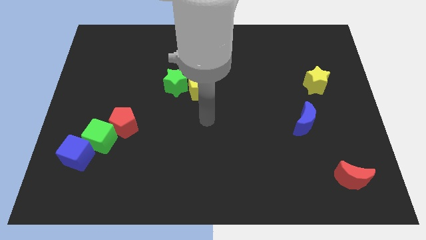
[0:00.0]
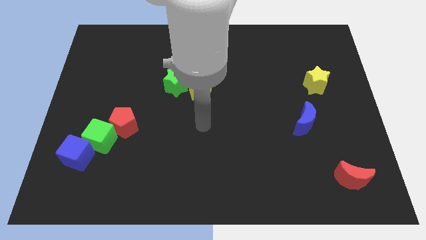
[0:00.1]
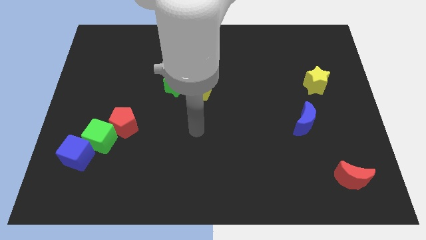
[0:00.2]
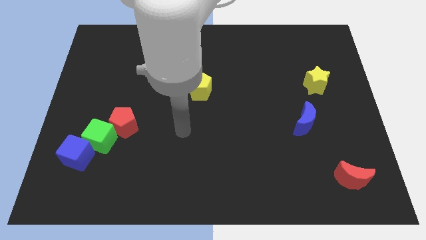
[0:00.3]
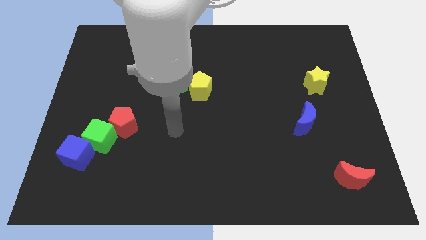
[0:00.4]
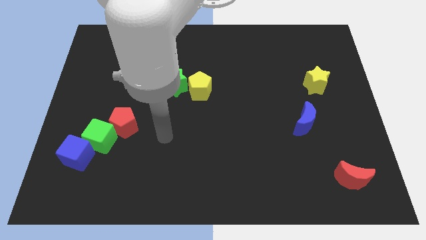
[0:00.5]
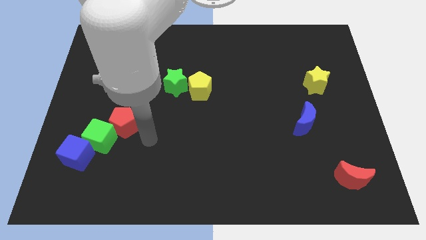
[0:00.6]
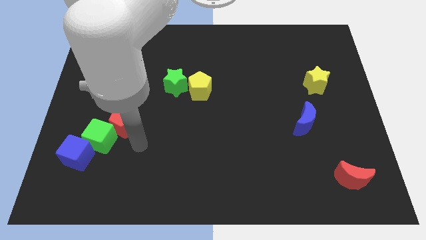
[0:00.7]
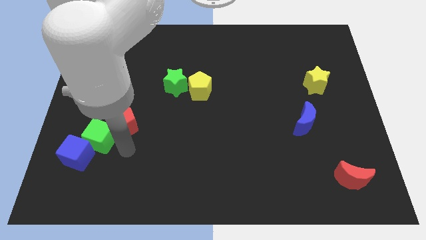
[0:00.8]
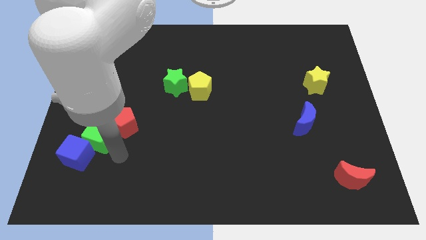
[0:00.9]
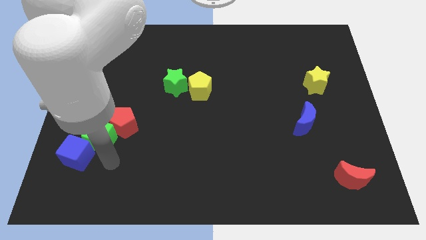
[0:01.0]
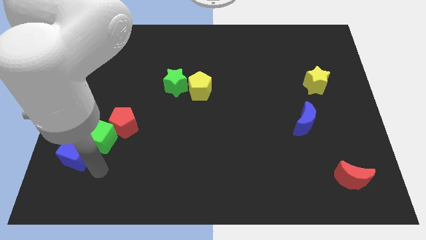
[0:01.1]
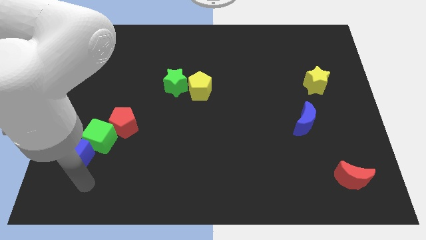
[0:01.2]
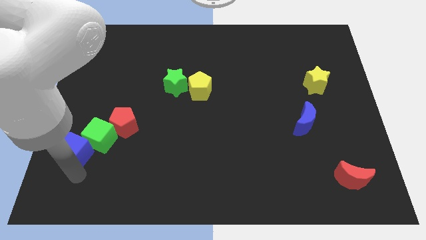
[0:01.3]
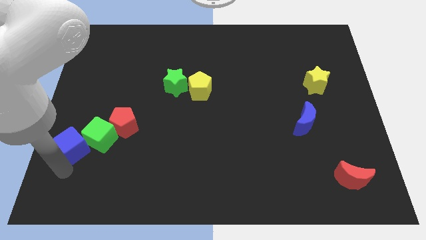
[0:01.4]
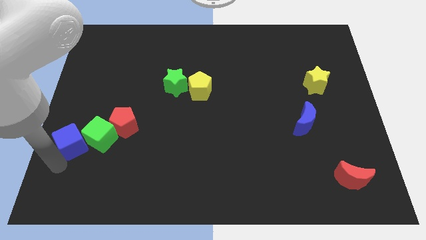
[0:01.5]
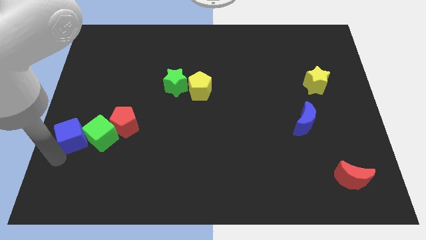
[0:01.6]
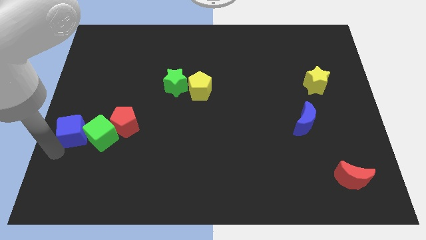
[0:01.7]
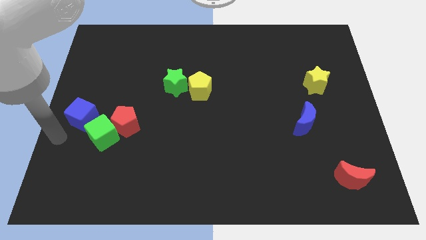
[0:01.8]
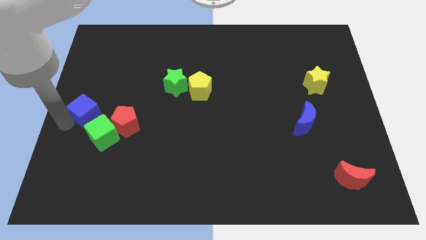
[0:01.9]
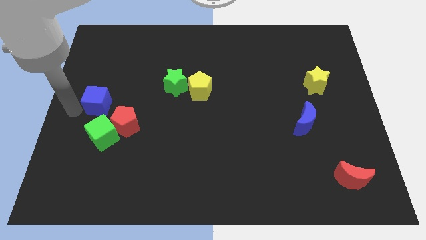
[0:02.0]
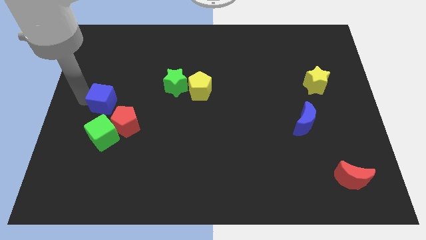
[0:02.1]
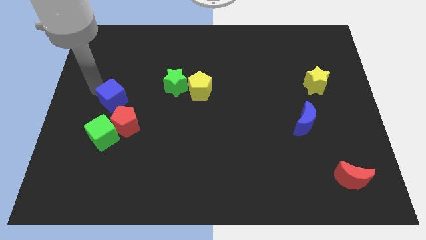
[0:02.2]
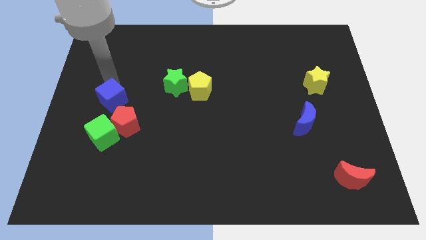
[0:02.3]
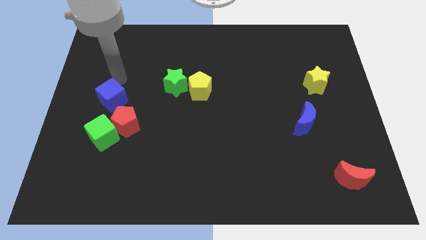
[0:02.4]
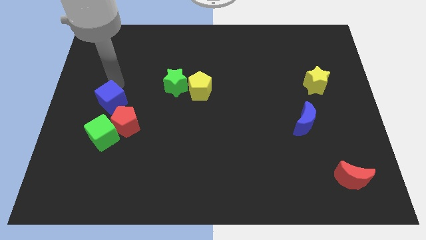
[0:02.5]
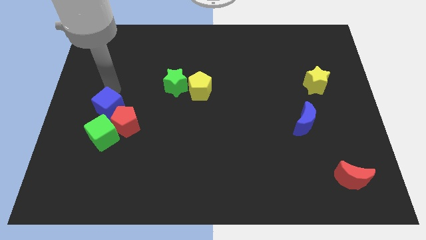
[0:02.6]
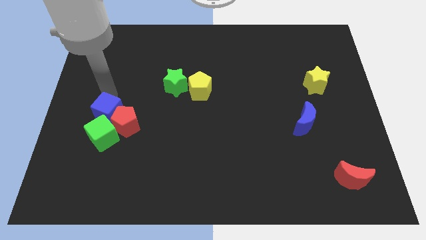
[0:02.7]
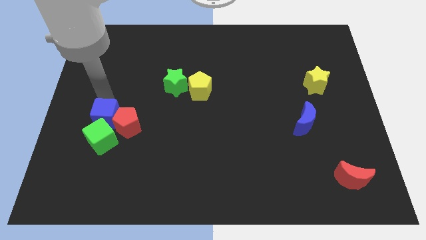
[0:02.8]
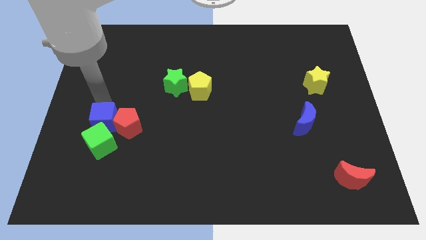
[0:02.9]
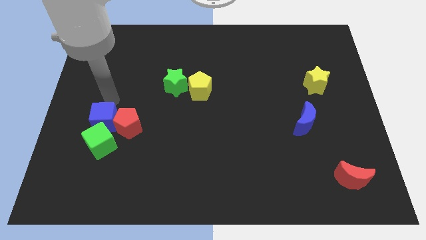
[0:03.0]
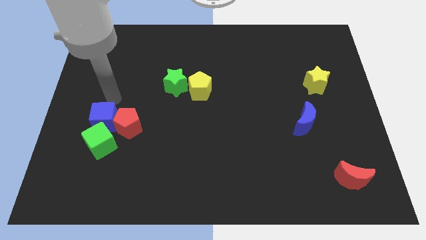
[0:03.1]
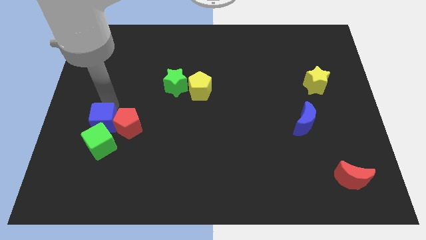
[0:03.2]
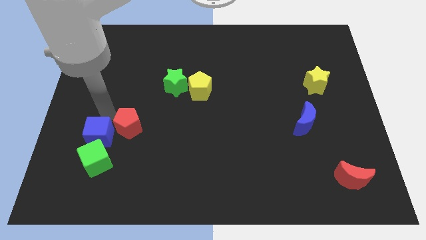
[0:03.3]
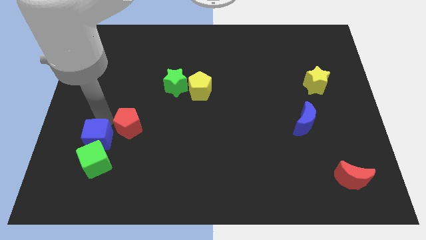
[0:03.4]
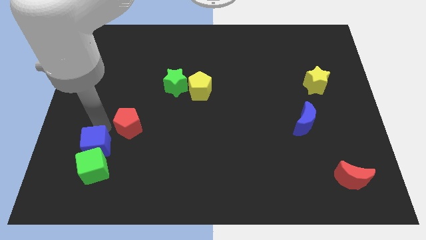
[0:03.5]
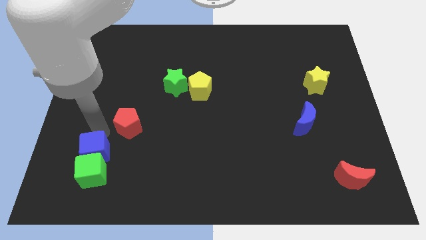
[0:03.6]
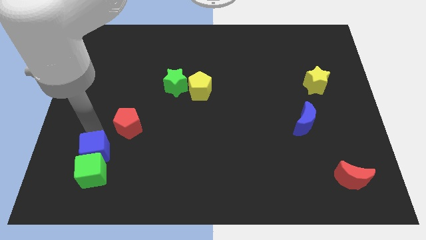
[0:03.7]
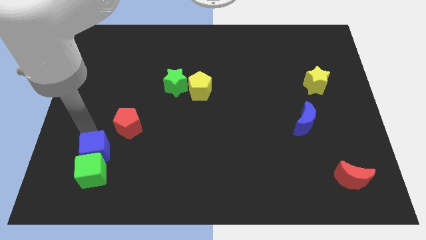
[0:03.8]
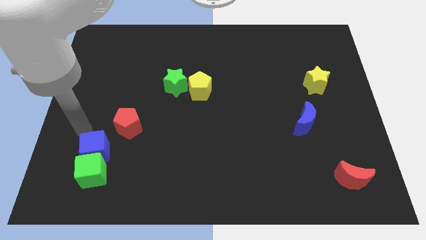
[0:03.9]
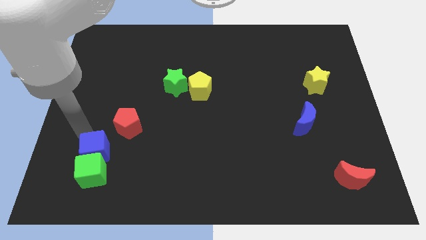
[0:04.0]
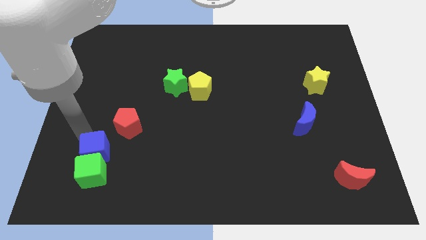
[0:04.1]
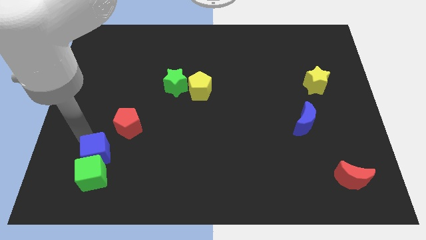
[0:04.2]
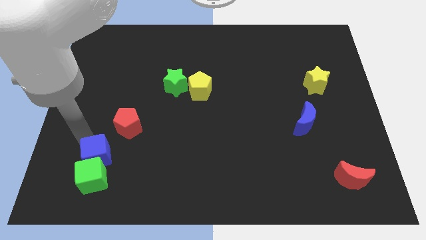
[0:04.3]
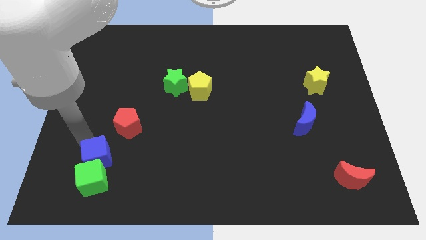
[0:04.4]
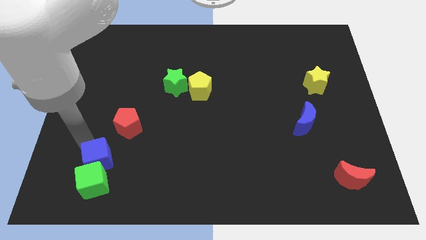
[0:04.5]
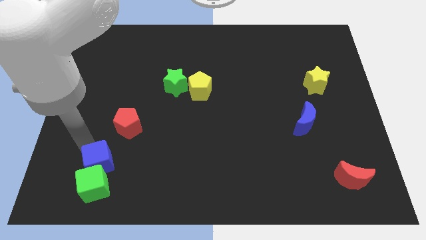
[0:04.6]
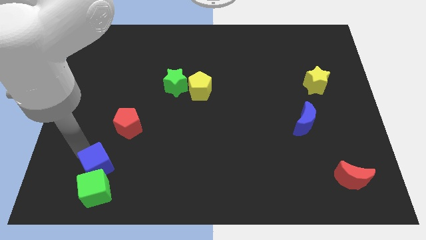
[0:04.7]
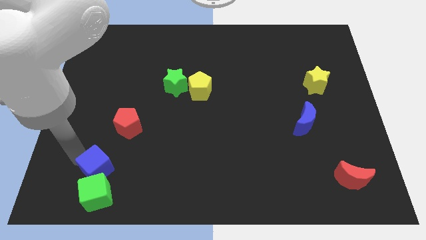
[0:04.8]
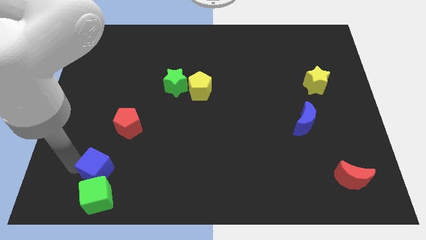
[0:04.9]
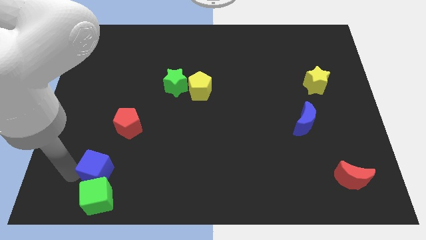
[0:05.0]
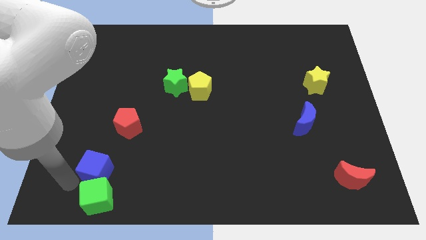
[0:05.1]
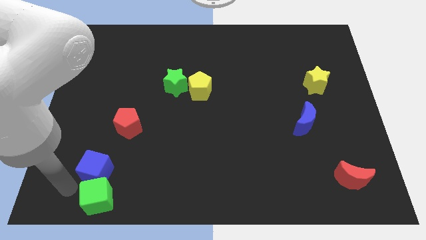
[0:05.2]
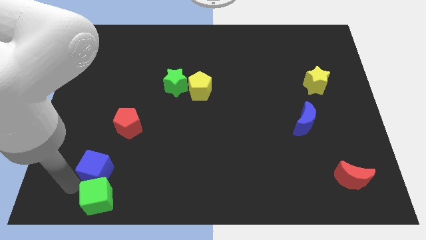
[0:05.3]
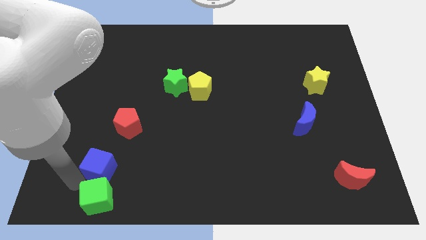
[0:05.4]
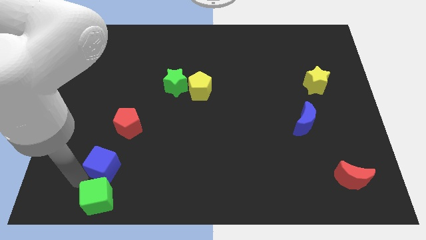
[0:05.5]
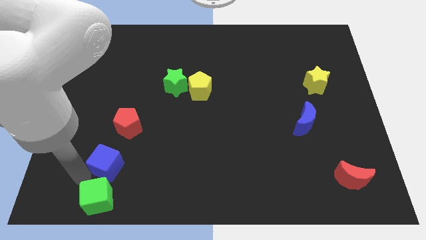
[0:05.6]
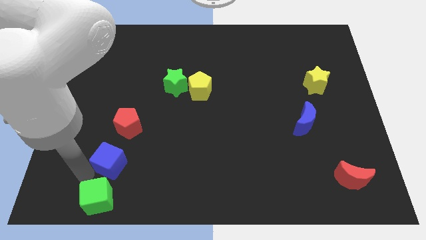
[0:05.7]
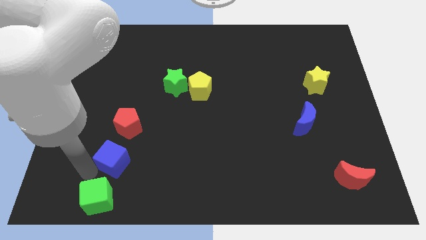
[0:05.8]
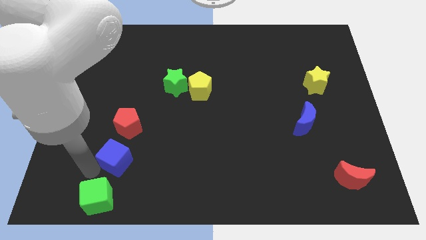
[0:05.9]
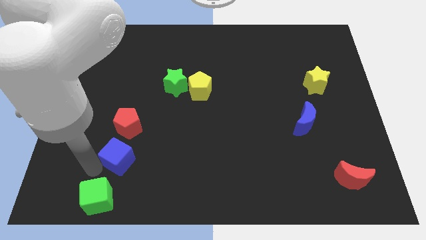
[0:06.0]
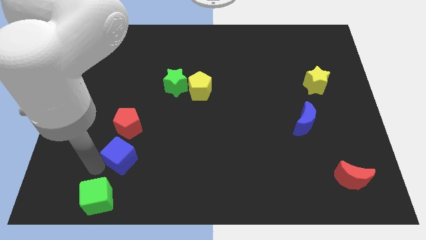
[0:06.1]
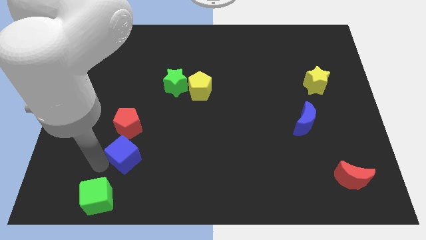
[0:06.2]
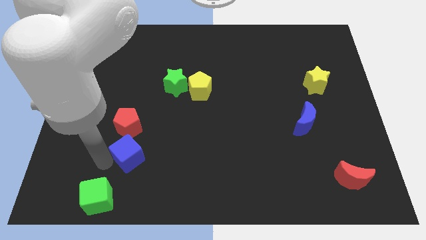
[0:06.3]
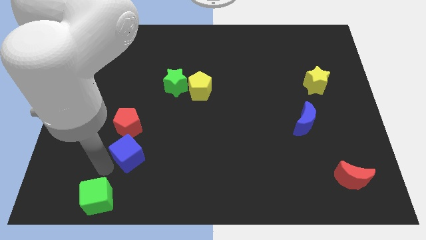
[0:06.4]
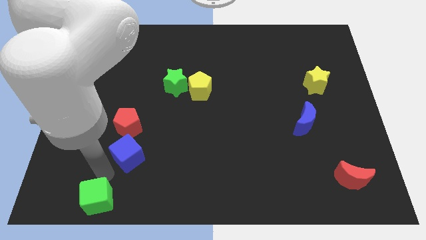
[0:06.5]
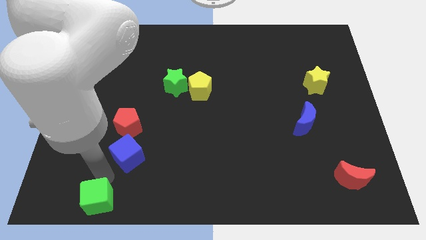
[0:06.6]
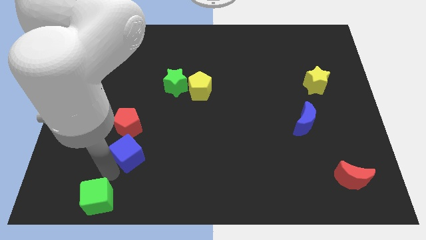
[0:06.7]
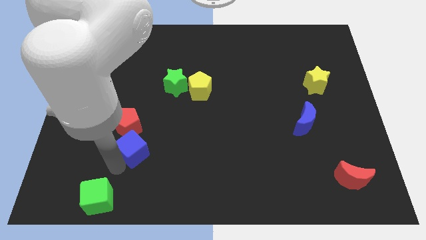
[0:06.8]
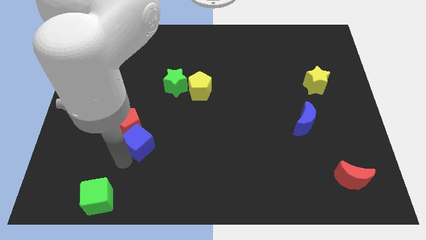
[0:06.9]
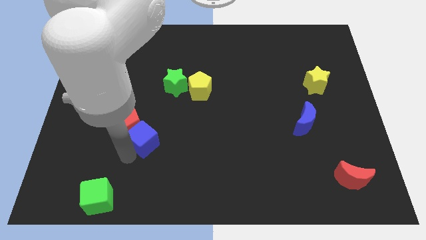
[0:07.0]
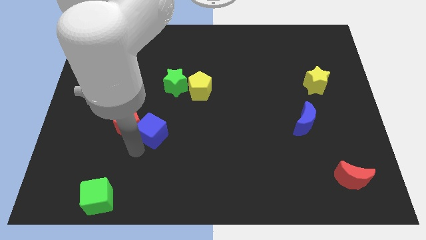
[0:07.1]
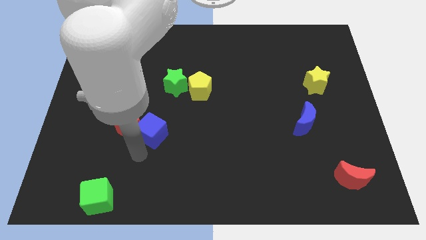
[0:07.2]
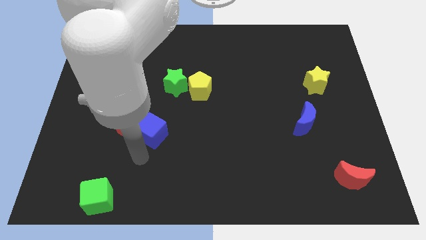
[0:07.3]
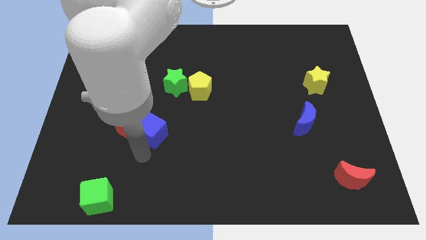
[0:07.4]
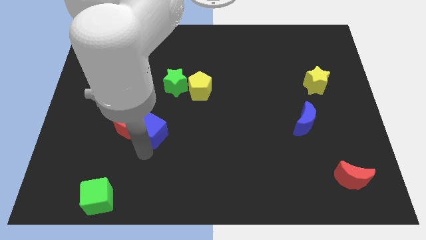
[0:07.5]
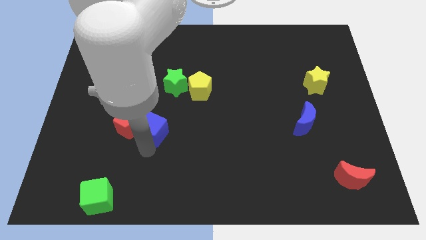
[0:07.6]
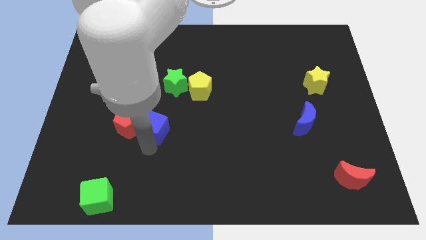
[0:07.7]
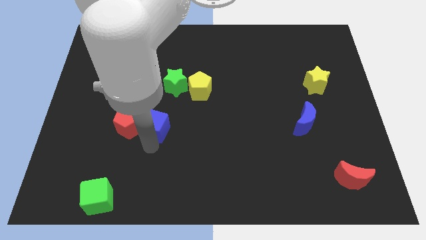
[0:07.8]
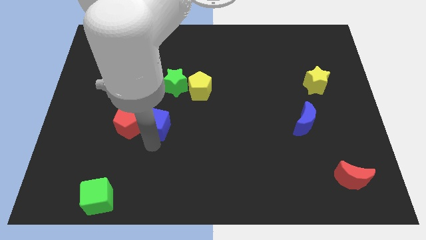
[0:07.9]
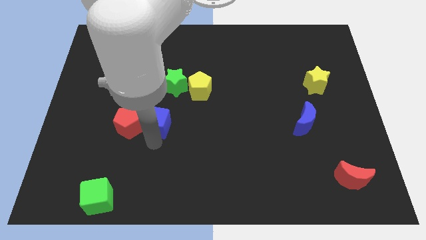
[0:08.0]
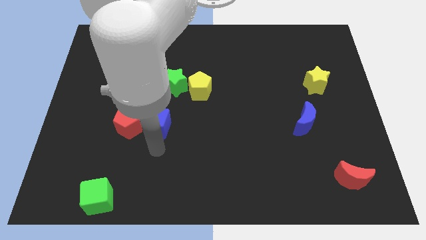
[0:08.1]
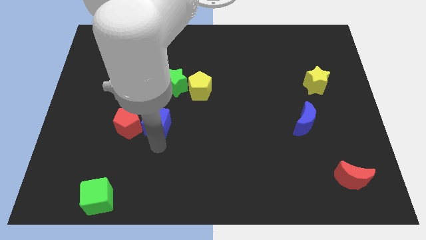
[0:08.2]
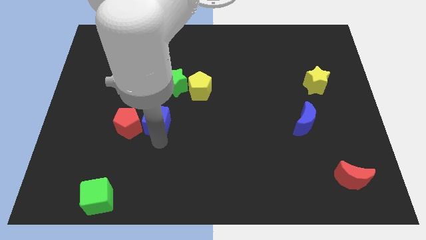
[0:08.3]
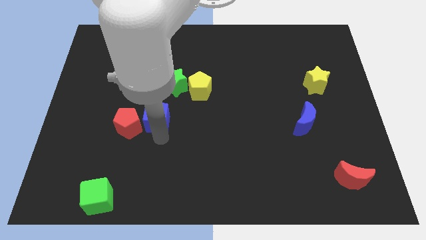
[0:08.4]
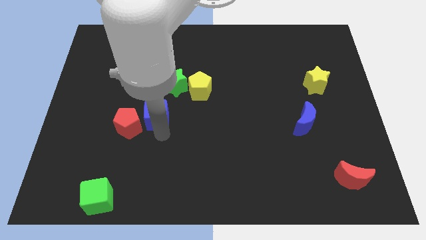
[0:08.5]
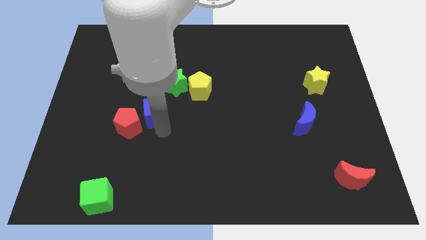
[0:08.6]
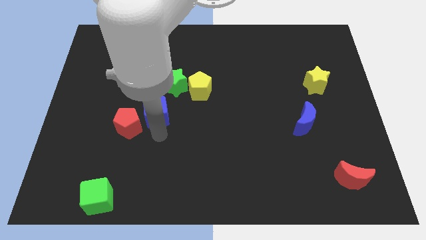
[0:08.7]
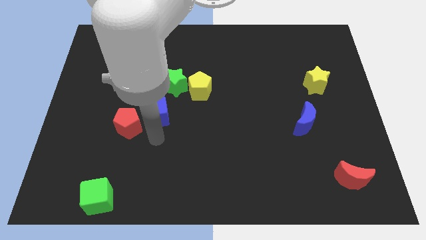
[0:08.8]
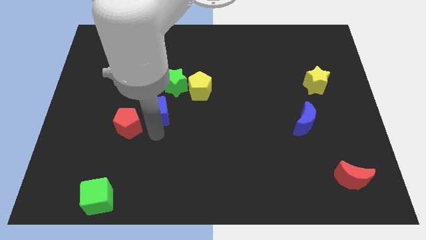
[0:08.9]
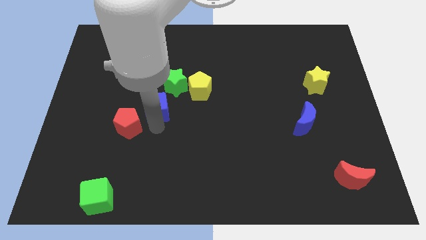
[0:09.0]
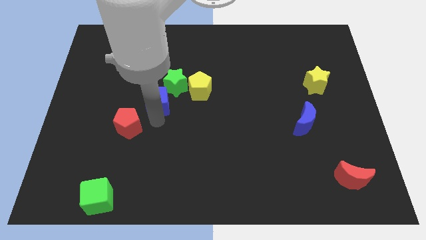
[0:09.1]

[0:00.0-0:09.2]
put the blue cube to the left of the yellow pentagon
